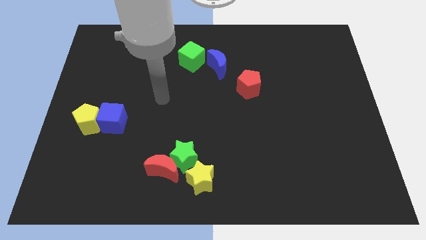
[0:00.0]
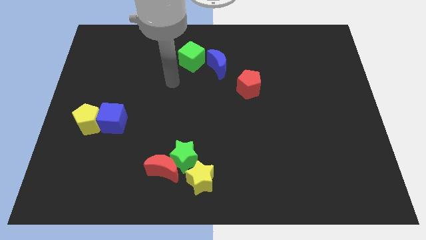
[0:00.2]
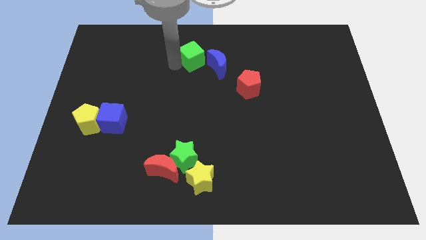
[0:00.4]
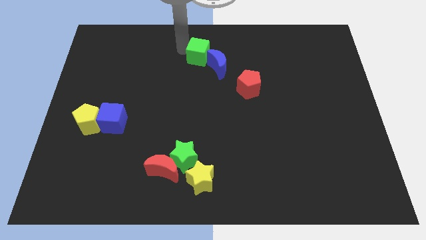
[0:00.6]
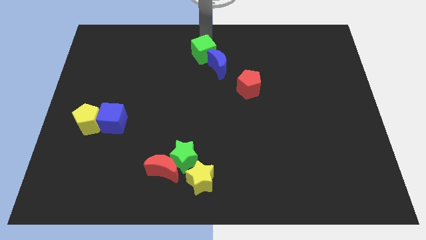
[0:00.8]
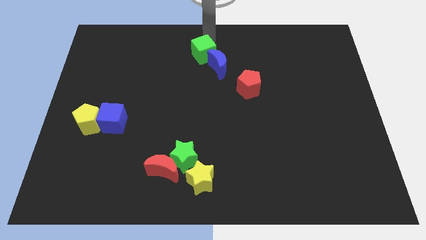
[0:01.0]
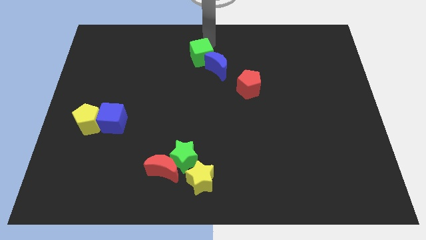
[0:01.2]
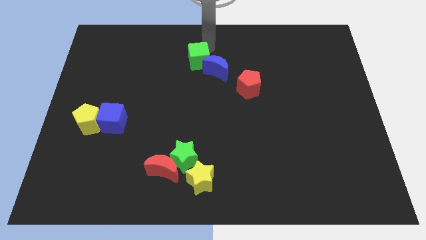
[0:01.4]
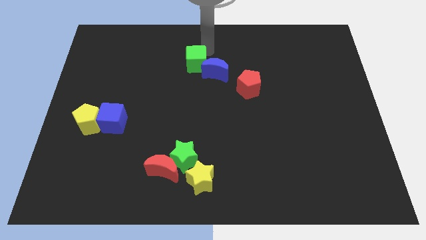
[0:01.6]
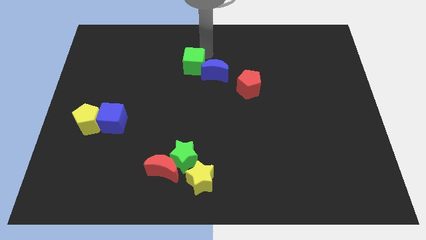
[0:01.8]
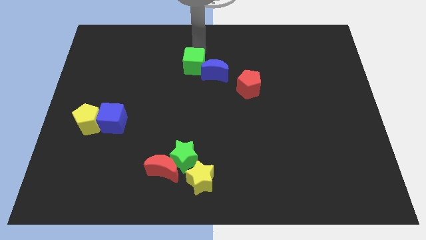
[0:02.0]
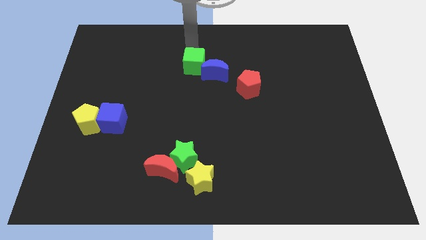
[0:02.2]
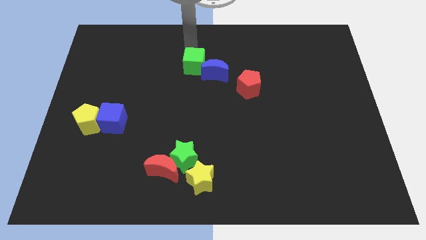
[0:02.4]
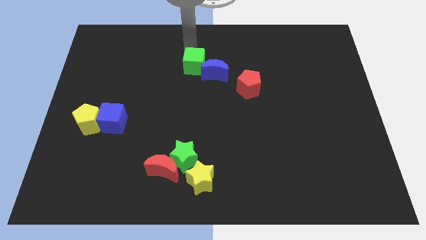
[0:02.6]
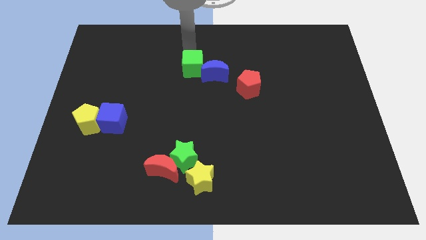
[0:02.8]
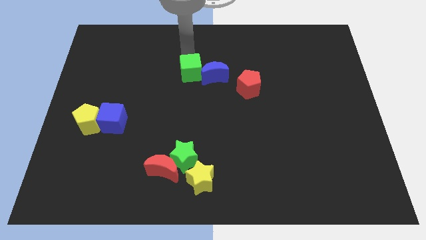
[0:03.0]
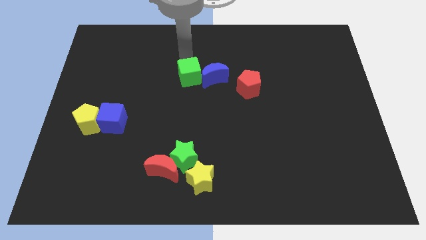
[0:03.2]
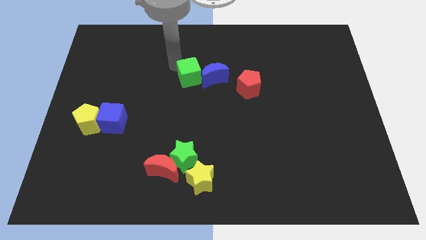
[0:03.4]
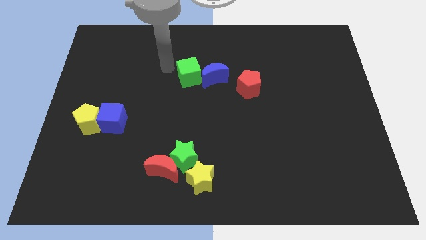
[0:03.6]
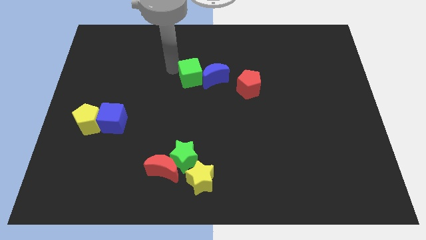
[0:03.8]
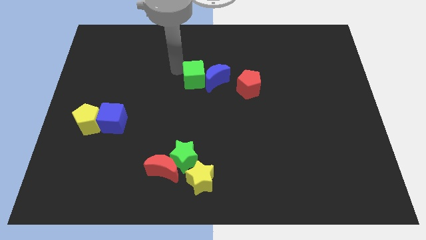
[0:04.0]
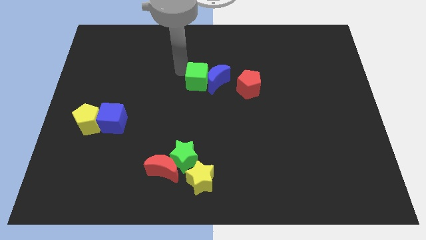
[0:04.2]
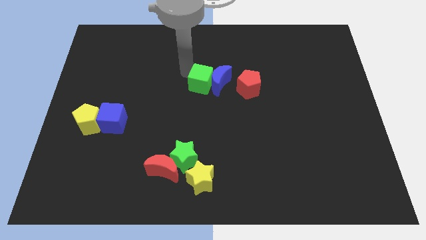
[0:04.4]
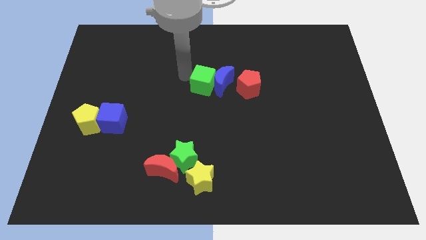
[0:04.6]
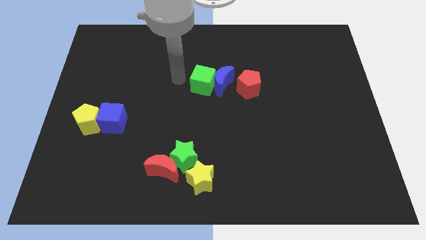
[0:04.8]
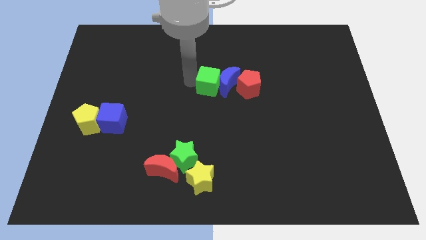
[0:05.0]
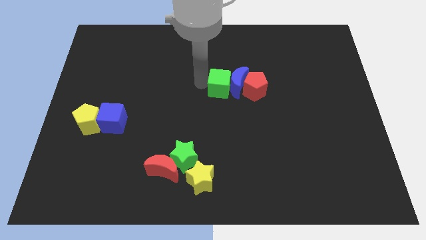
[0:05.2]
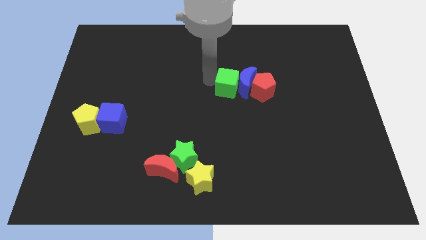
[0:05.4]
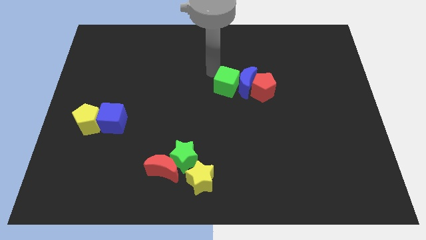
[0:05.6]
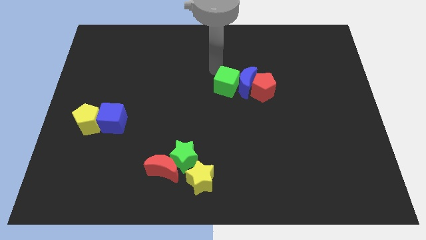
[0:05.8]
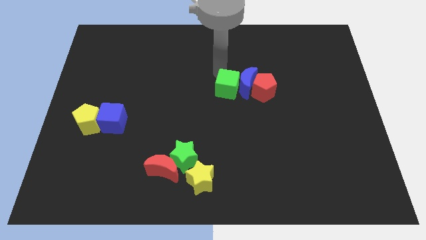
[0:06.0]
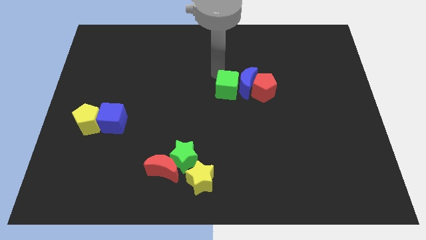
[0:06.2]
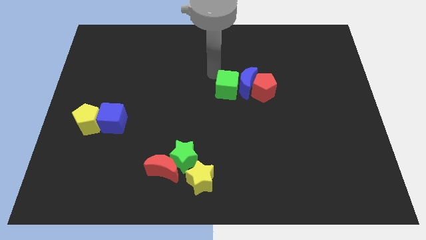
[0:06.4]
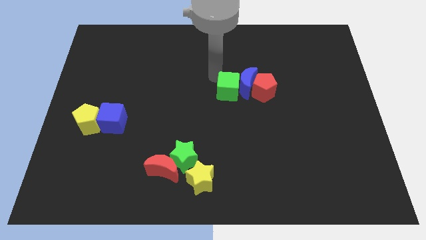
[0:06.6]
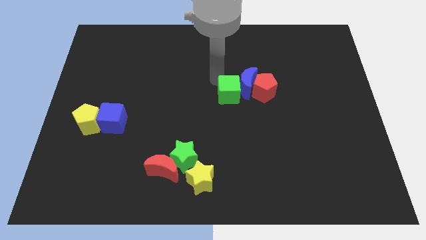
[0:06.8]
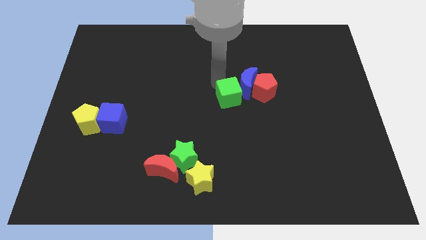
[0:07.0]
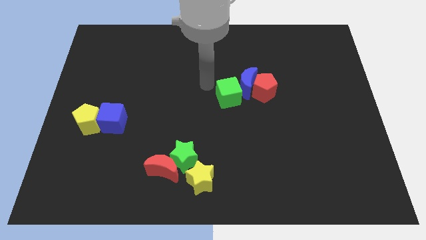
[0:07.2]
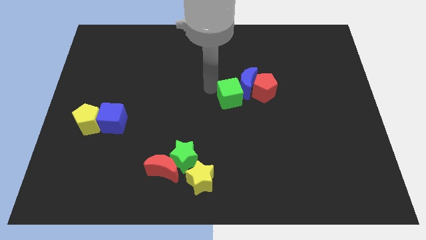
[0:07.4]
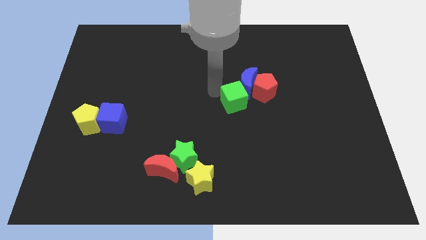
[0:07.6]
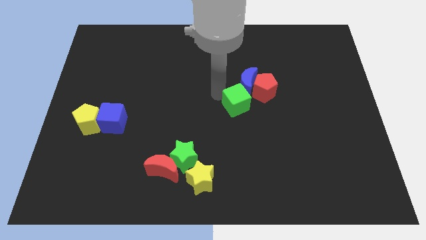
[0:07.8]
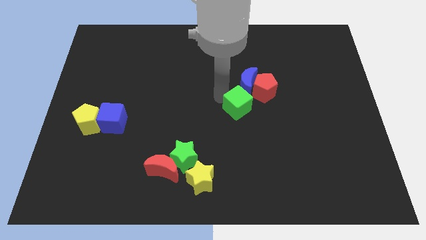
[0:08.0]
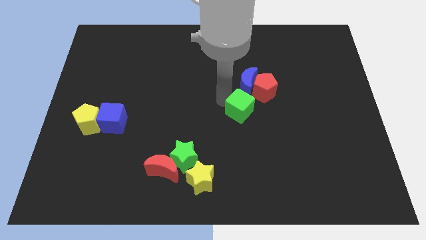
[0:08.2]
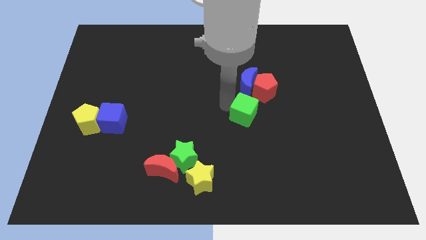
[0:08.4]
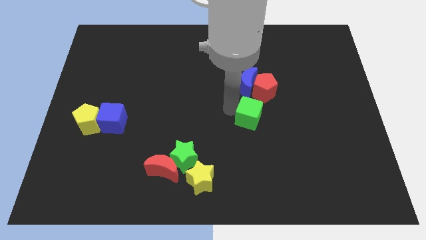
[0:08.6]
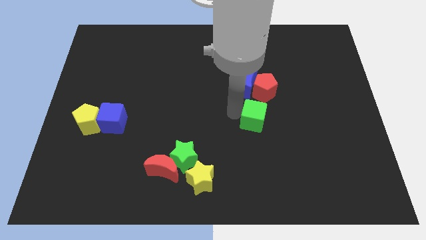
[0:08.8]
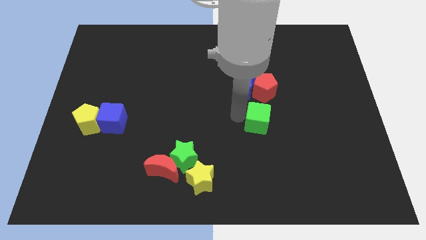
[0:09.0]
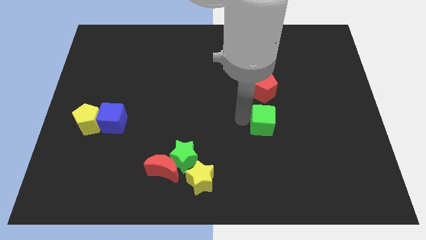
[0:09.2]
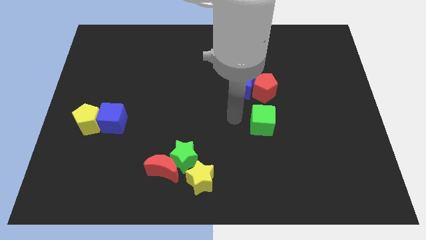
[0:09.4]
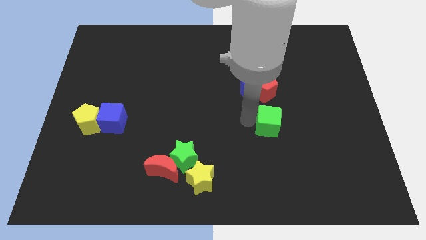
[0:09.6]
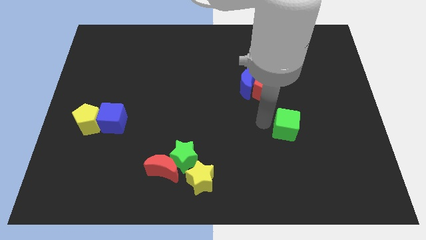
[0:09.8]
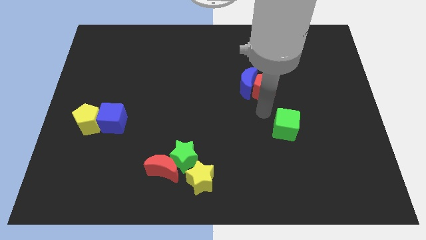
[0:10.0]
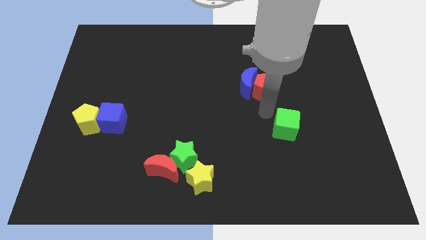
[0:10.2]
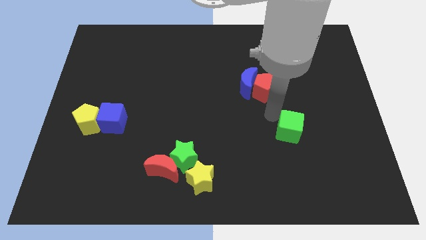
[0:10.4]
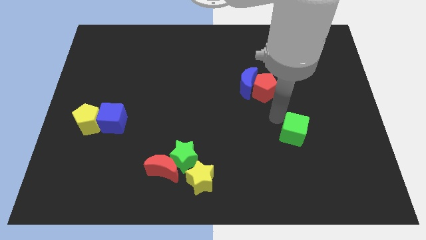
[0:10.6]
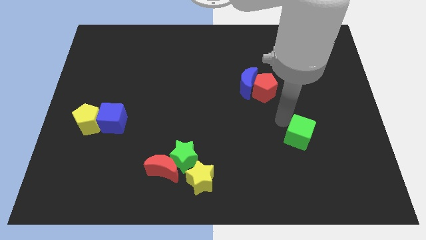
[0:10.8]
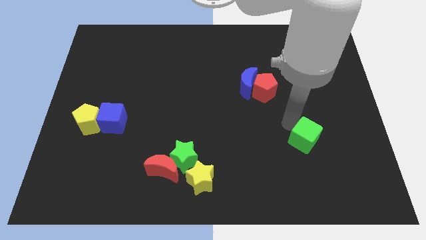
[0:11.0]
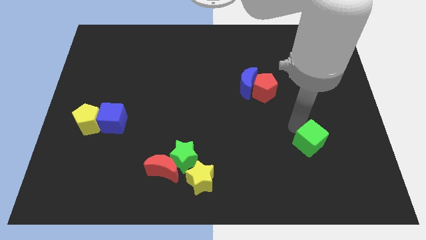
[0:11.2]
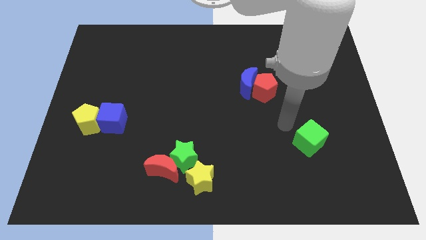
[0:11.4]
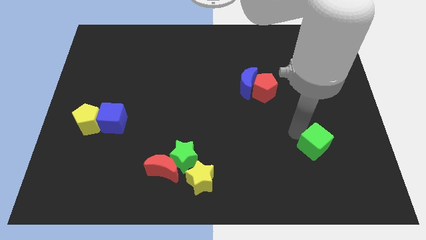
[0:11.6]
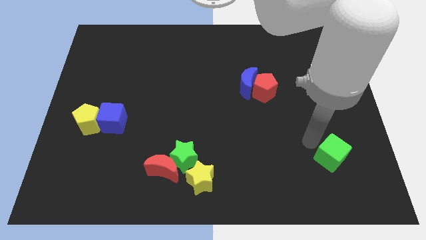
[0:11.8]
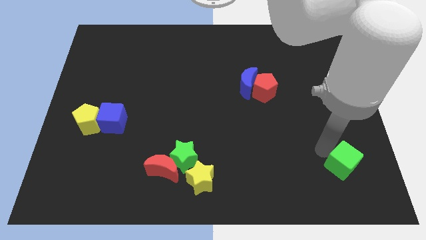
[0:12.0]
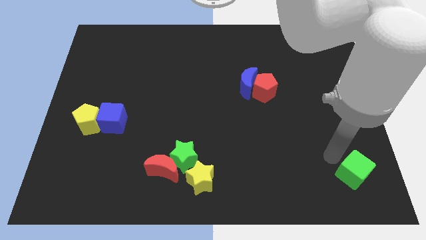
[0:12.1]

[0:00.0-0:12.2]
slide the green cube to the bottom right

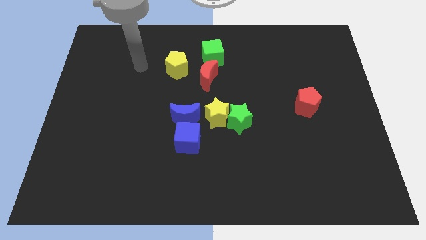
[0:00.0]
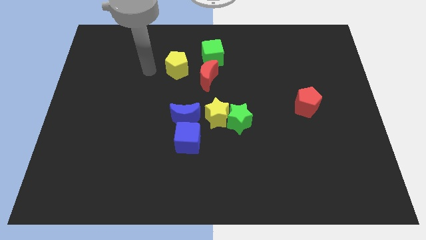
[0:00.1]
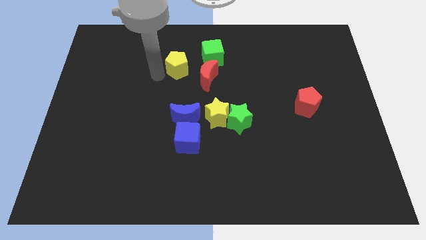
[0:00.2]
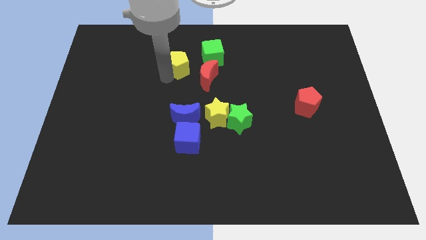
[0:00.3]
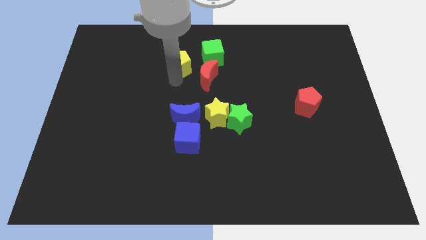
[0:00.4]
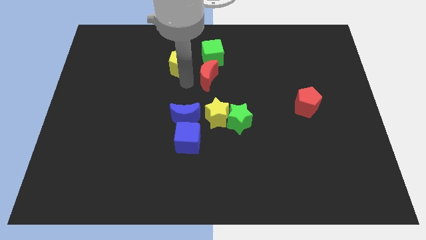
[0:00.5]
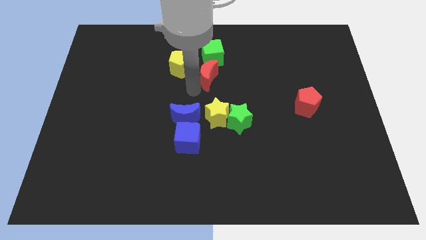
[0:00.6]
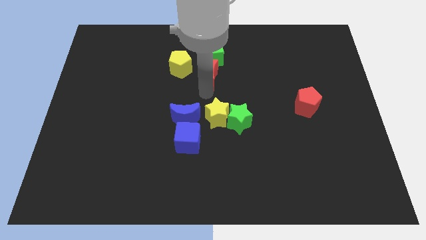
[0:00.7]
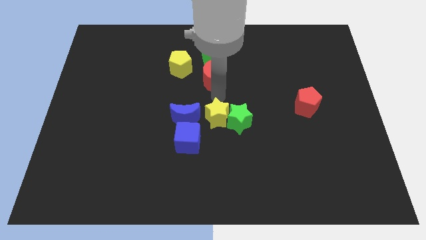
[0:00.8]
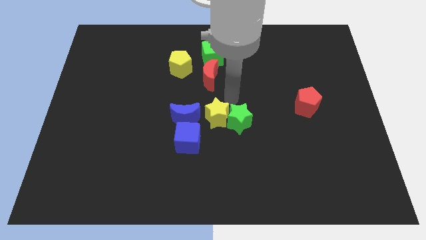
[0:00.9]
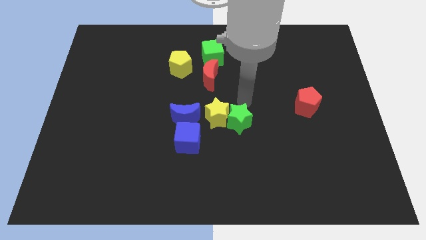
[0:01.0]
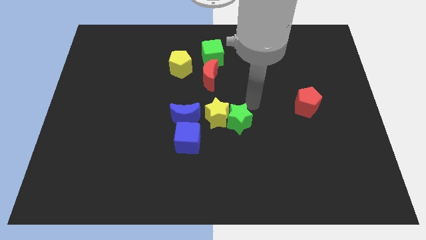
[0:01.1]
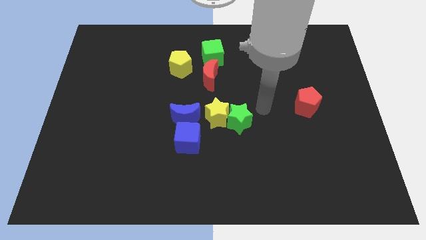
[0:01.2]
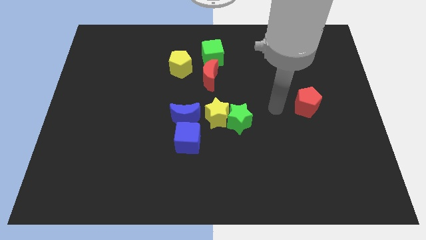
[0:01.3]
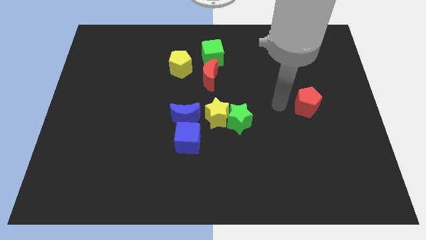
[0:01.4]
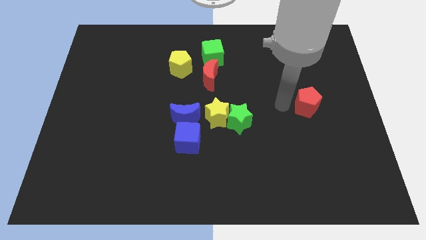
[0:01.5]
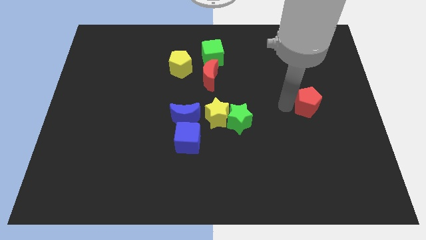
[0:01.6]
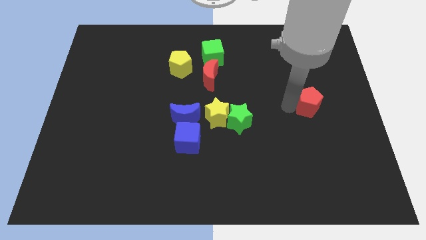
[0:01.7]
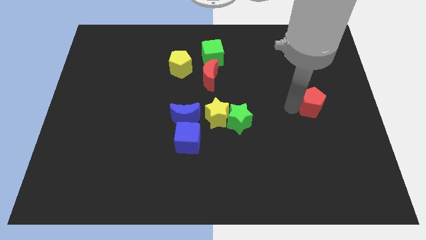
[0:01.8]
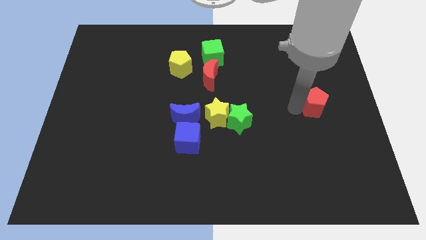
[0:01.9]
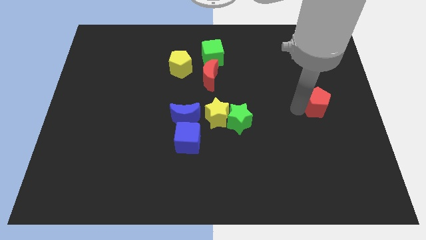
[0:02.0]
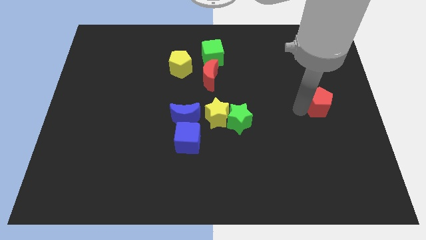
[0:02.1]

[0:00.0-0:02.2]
push the red pentagon to the right side
